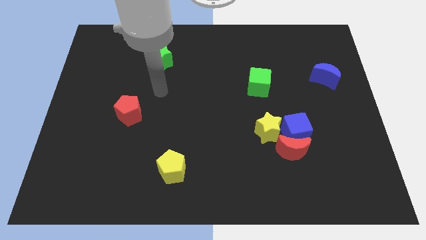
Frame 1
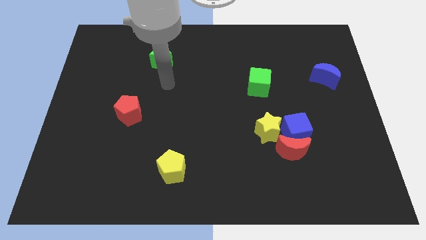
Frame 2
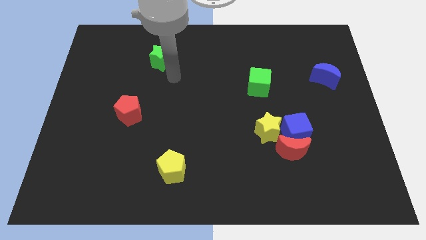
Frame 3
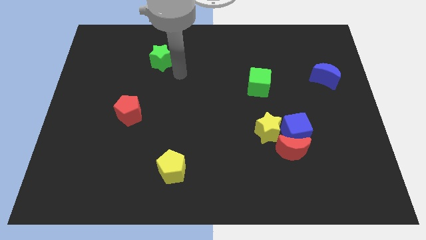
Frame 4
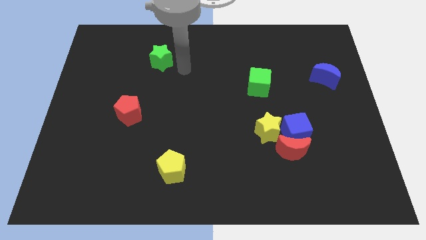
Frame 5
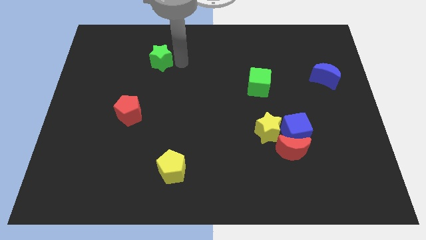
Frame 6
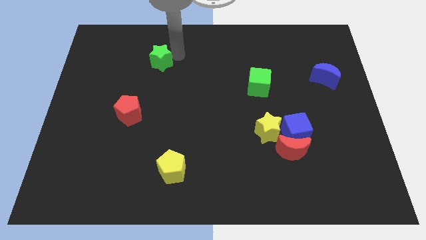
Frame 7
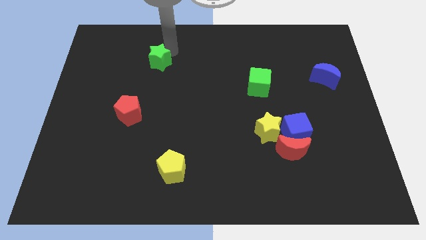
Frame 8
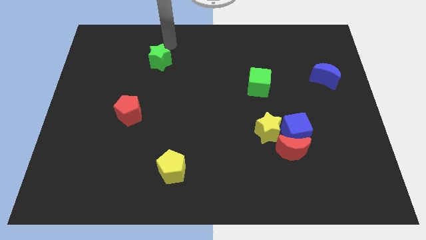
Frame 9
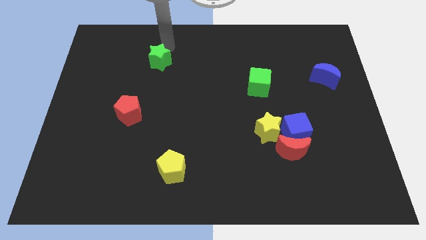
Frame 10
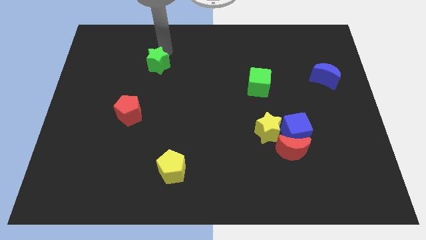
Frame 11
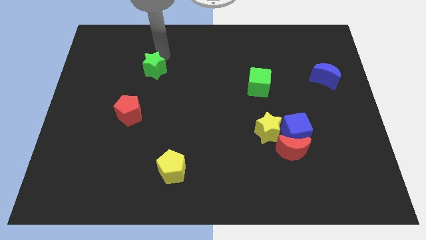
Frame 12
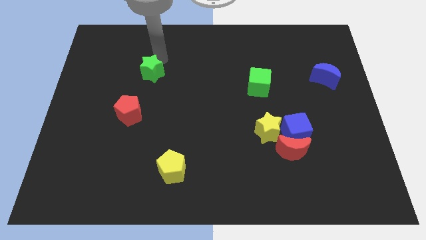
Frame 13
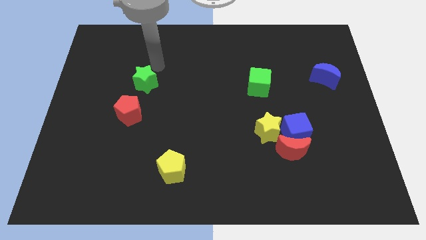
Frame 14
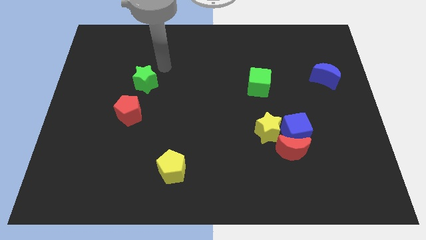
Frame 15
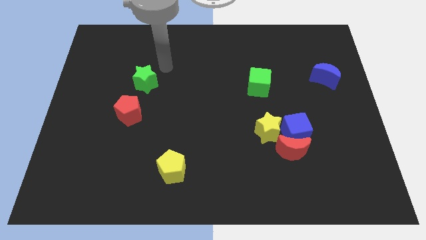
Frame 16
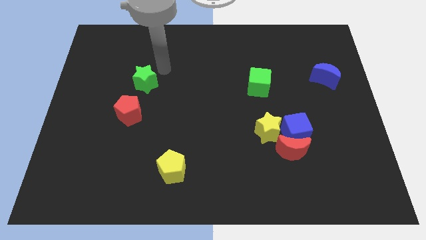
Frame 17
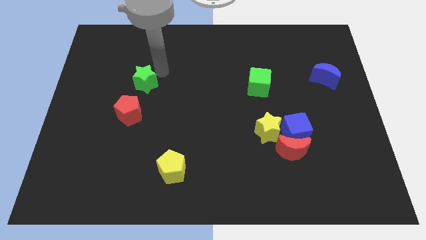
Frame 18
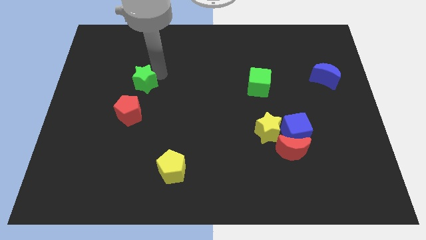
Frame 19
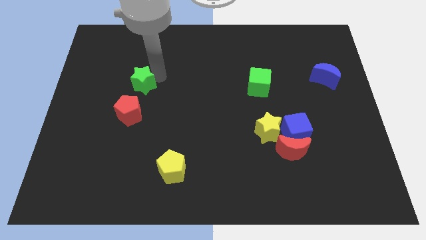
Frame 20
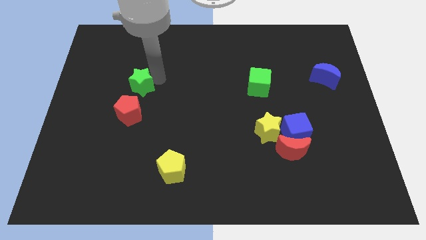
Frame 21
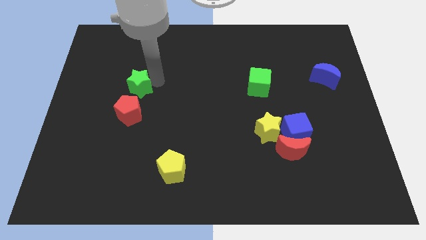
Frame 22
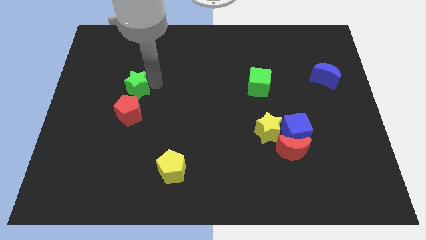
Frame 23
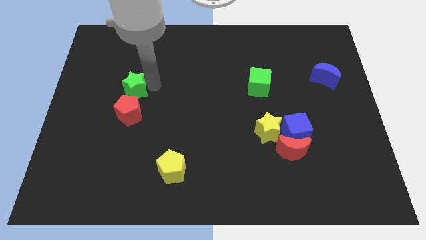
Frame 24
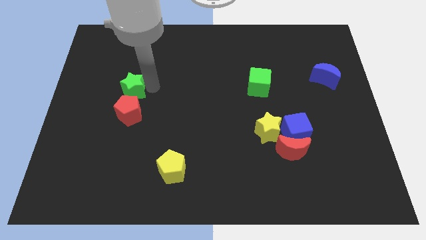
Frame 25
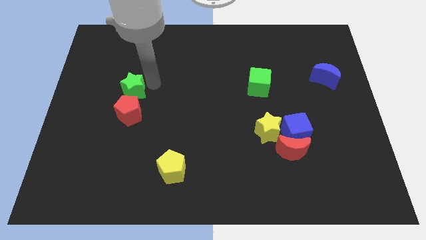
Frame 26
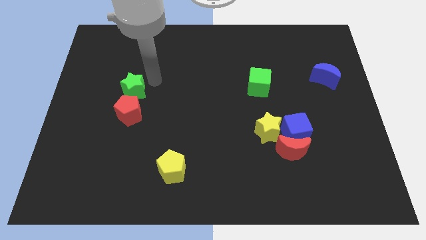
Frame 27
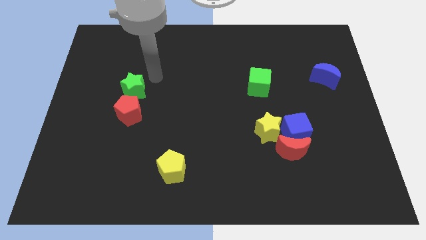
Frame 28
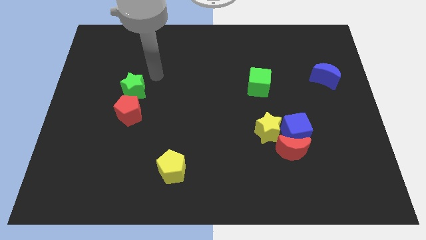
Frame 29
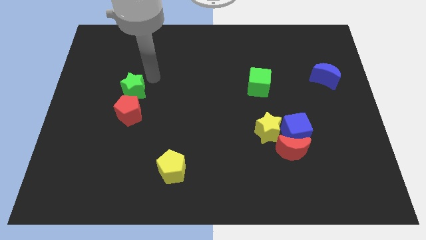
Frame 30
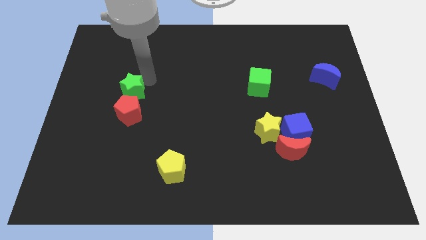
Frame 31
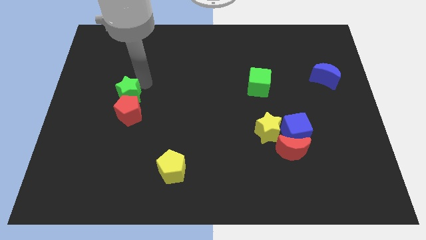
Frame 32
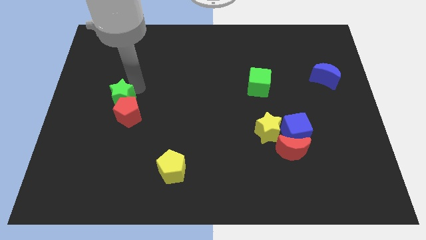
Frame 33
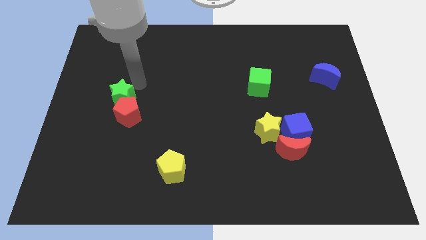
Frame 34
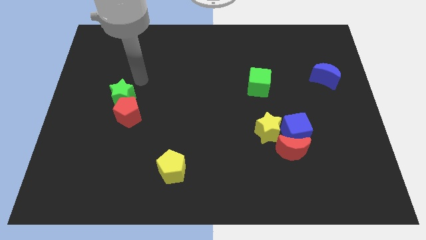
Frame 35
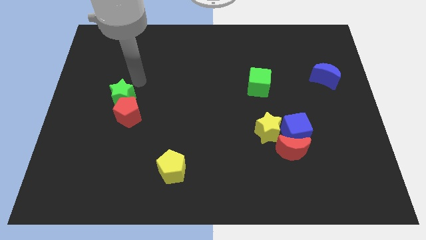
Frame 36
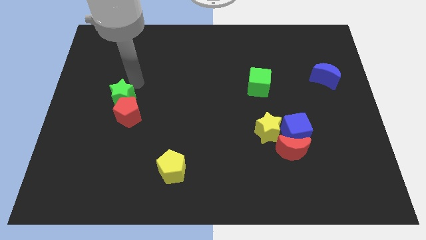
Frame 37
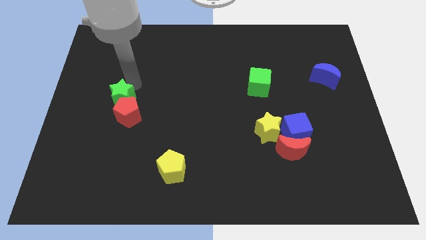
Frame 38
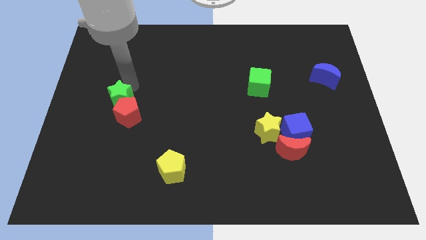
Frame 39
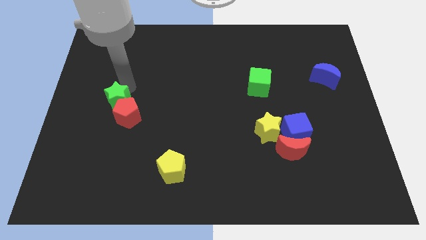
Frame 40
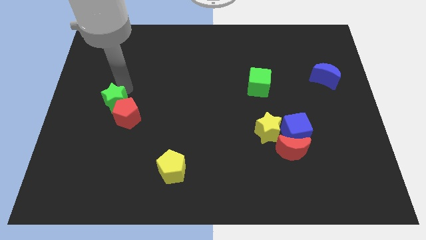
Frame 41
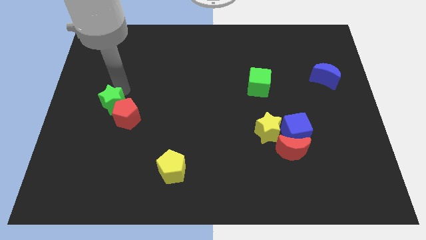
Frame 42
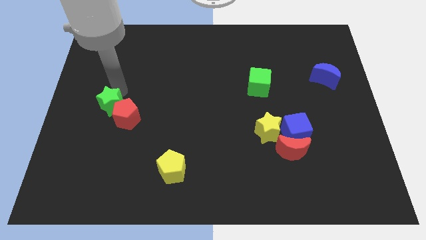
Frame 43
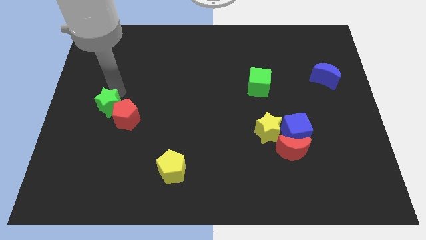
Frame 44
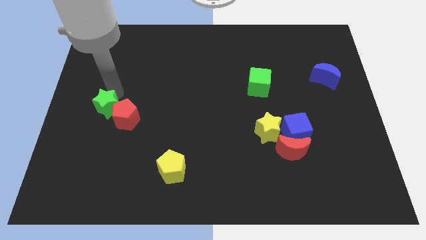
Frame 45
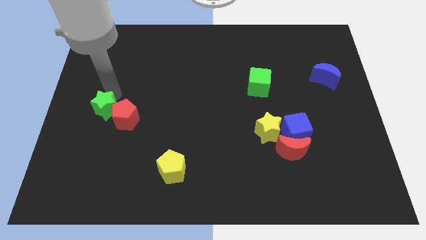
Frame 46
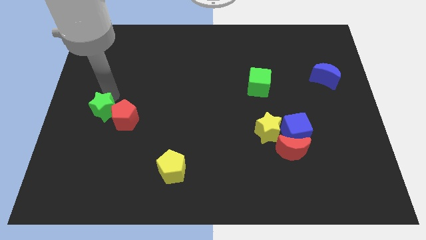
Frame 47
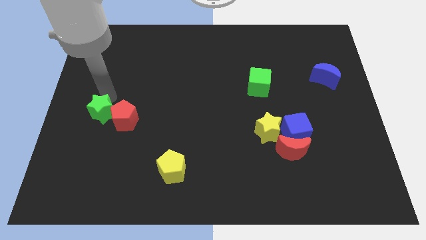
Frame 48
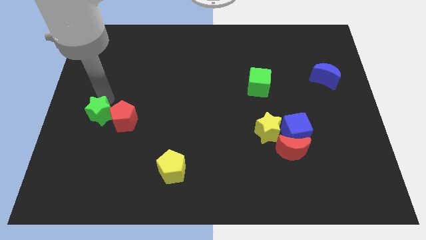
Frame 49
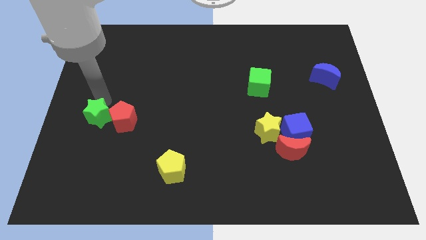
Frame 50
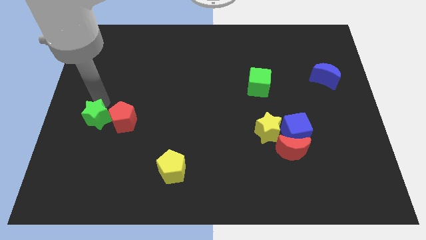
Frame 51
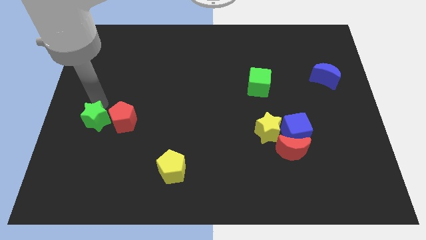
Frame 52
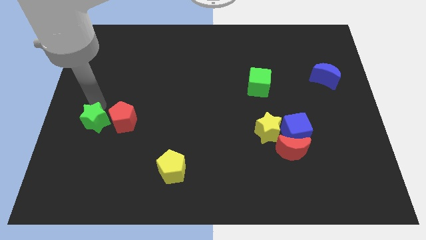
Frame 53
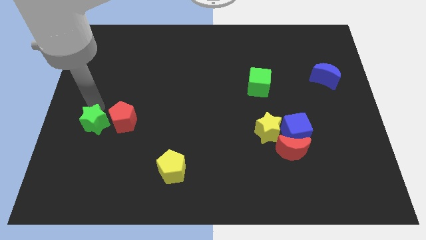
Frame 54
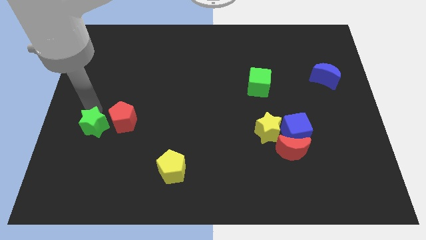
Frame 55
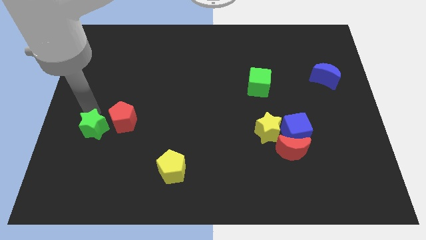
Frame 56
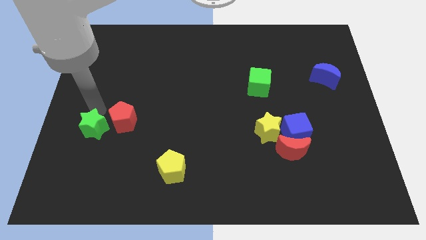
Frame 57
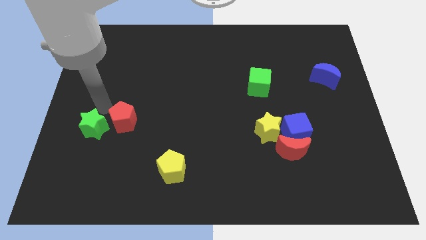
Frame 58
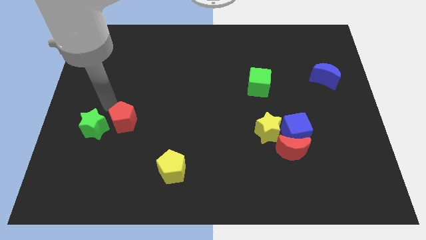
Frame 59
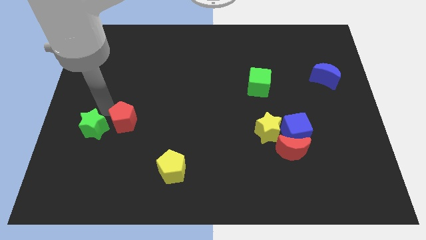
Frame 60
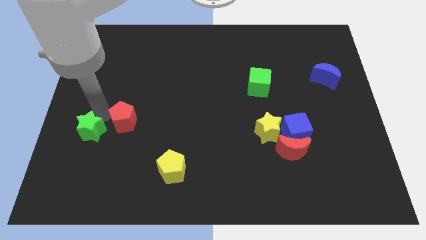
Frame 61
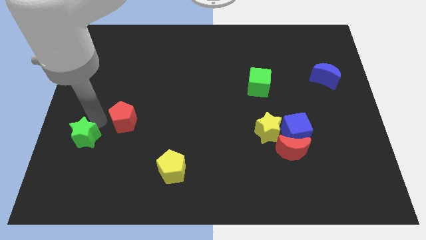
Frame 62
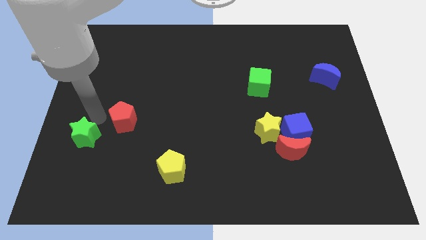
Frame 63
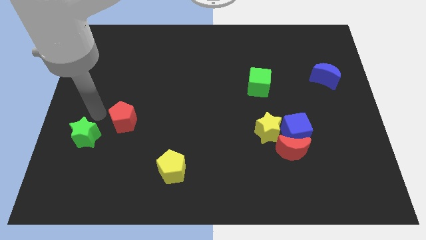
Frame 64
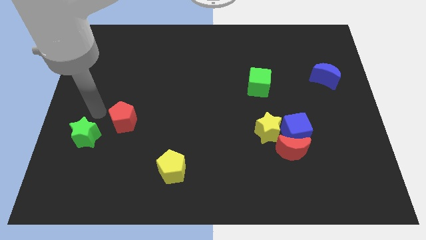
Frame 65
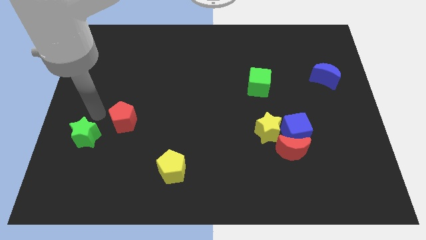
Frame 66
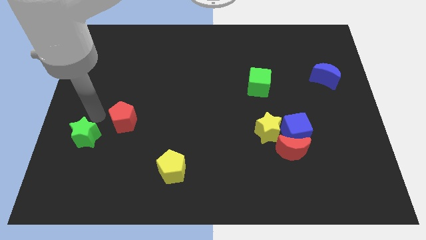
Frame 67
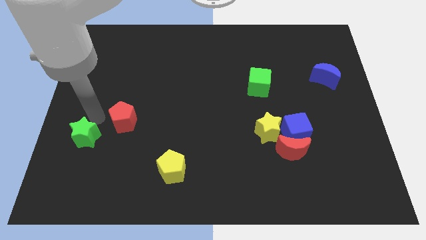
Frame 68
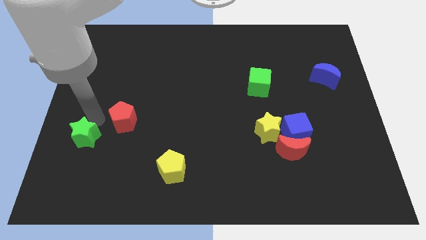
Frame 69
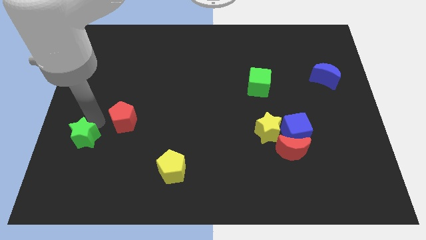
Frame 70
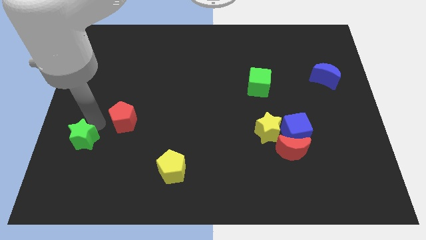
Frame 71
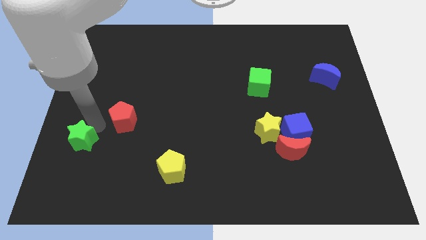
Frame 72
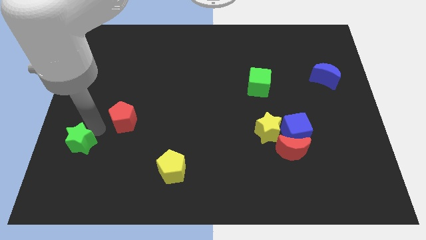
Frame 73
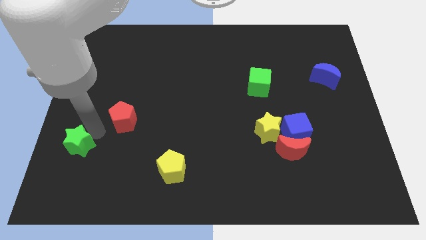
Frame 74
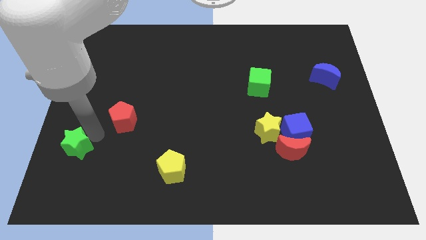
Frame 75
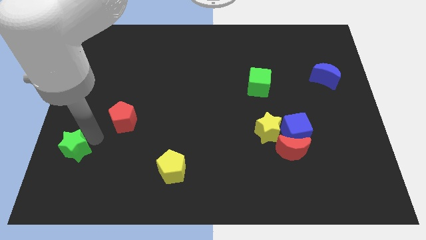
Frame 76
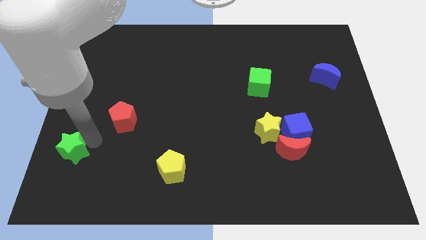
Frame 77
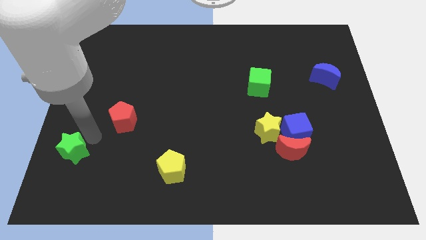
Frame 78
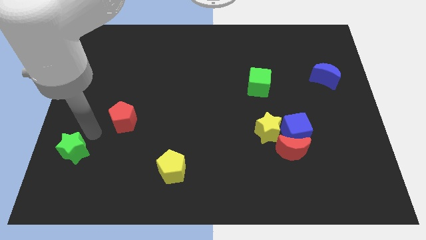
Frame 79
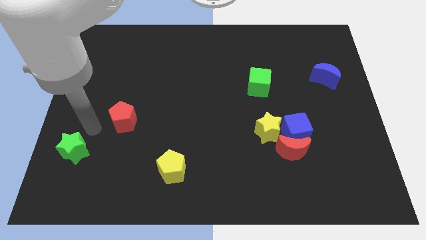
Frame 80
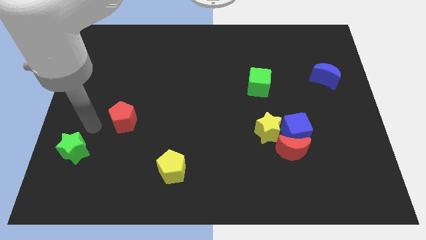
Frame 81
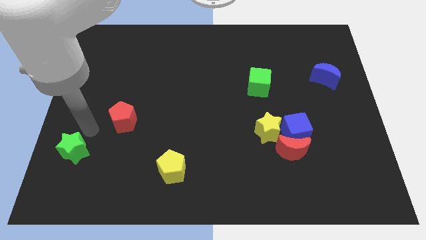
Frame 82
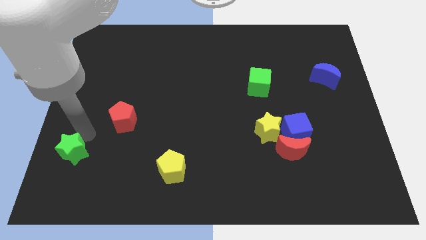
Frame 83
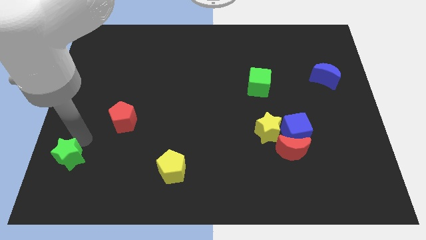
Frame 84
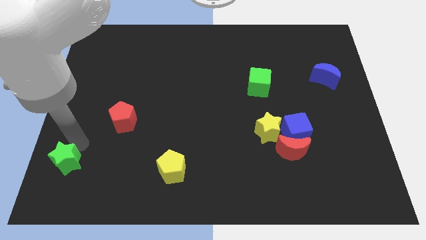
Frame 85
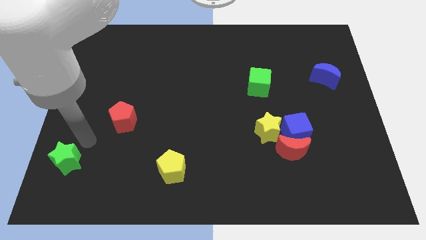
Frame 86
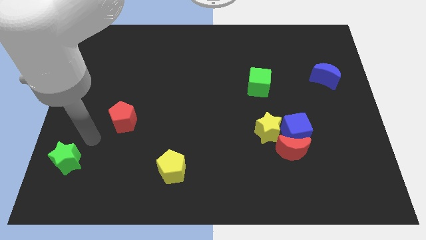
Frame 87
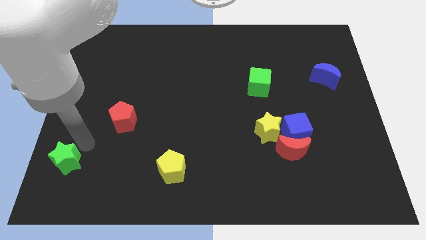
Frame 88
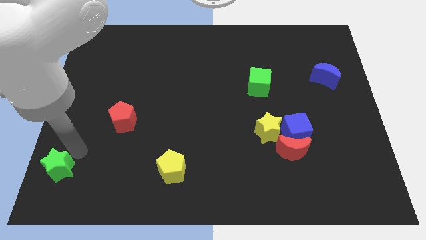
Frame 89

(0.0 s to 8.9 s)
move the green star to the bottom left corner
